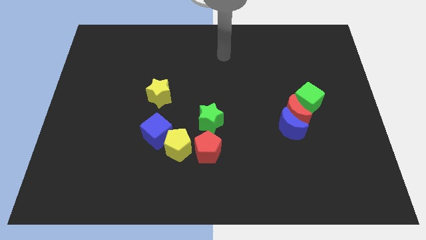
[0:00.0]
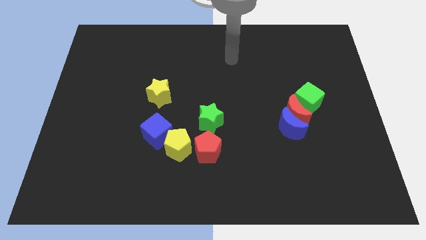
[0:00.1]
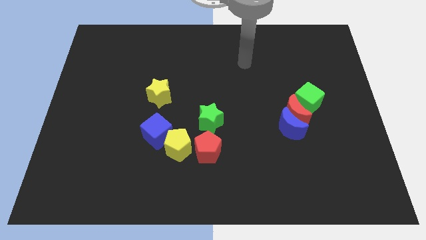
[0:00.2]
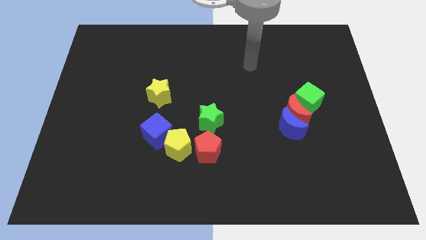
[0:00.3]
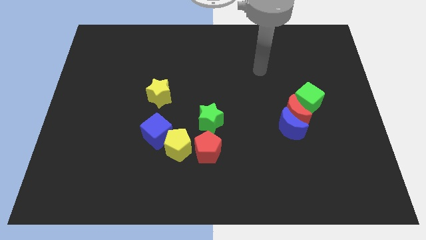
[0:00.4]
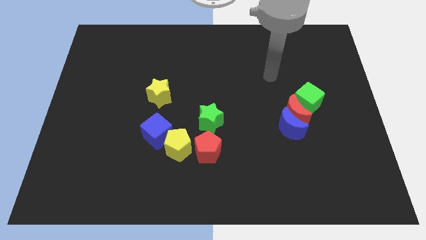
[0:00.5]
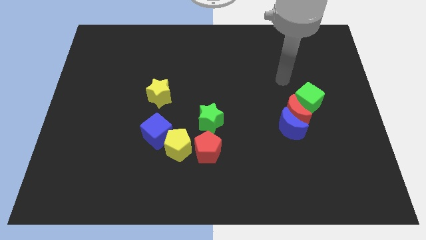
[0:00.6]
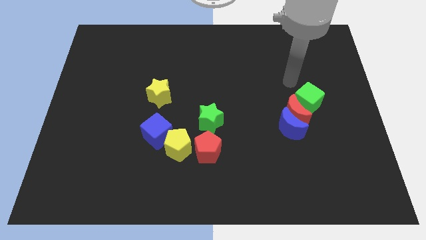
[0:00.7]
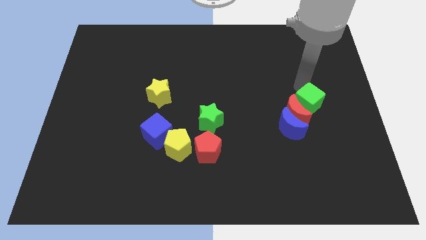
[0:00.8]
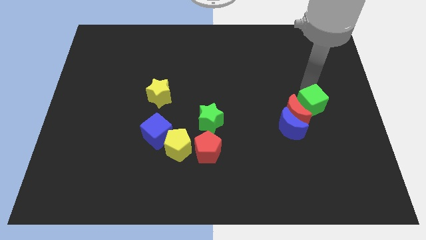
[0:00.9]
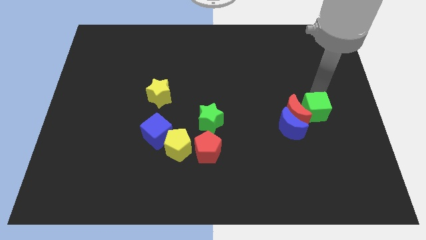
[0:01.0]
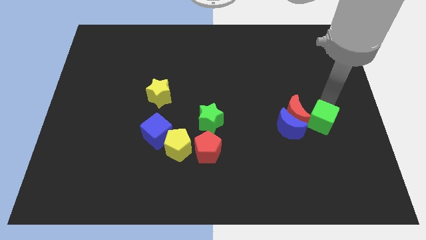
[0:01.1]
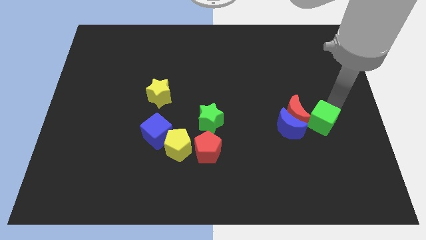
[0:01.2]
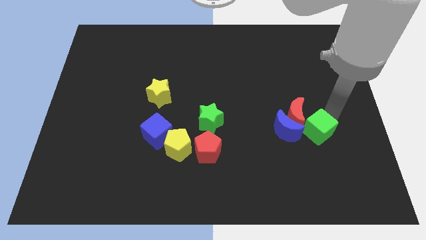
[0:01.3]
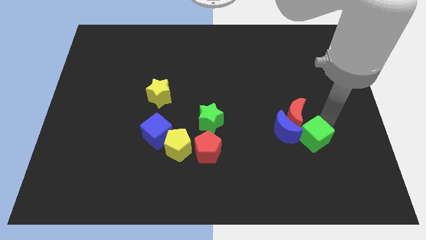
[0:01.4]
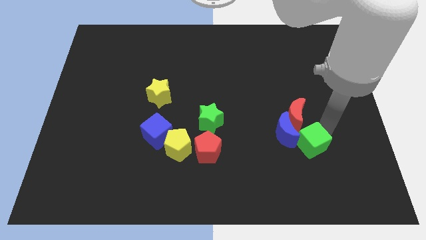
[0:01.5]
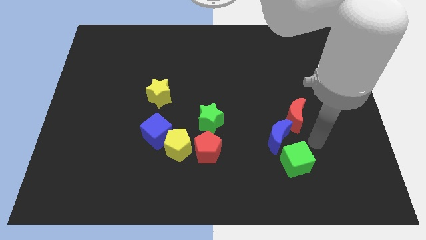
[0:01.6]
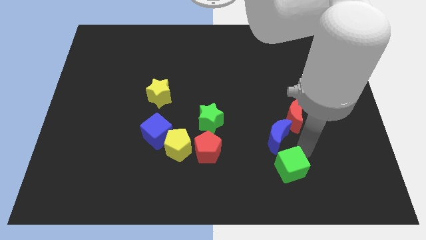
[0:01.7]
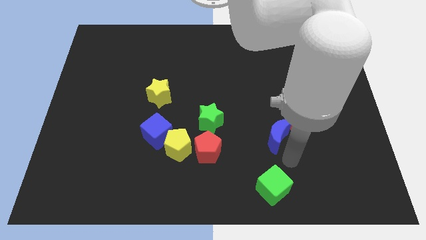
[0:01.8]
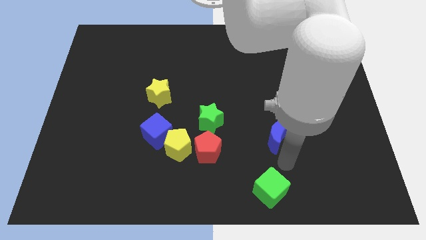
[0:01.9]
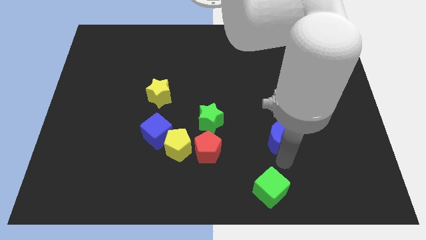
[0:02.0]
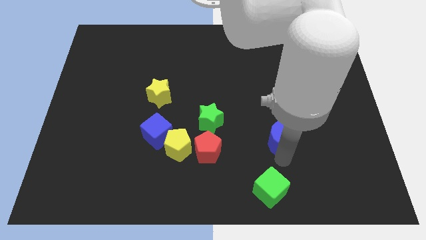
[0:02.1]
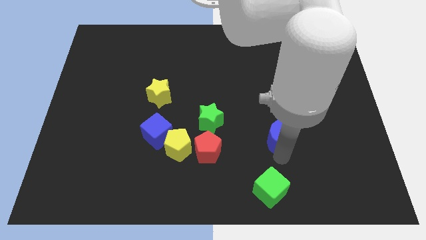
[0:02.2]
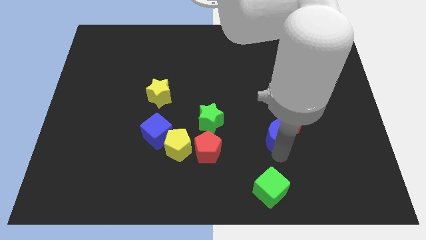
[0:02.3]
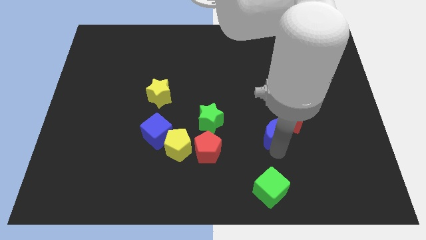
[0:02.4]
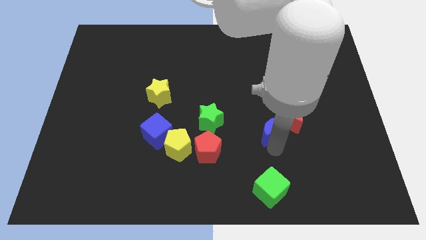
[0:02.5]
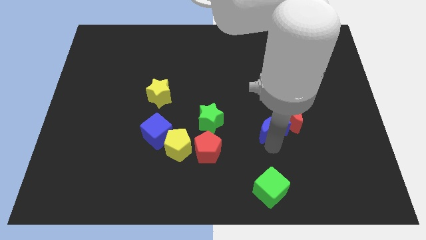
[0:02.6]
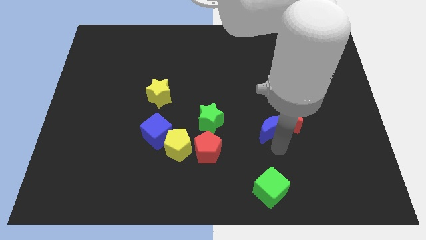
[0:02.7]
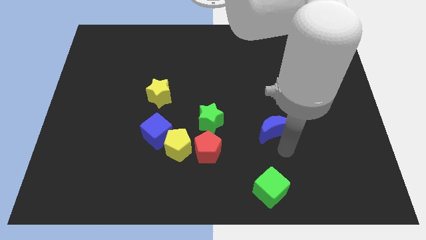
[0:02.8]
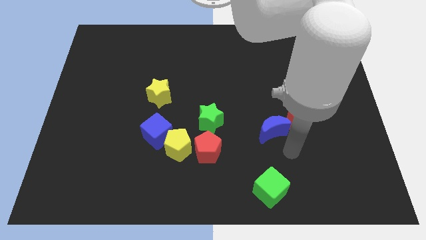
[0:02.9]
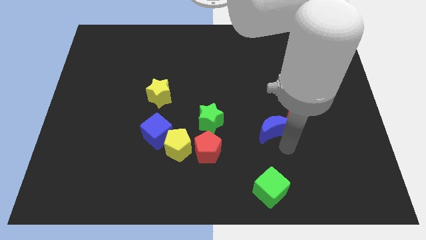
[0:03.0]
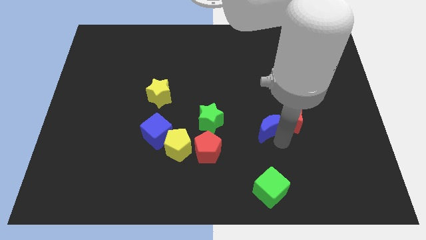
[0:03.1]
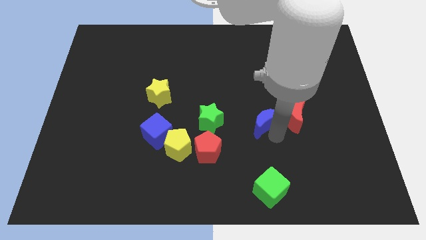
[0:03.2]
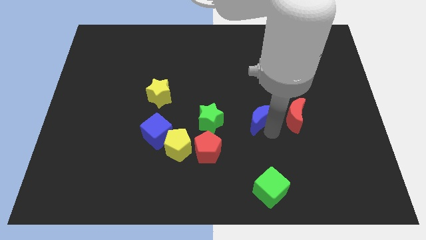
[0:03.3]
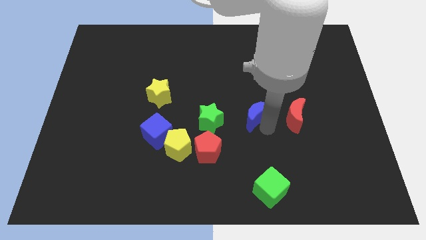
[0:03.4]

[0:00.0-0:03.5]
slightly move the blue moon upwards and then left

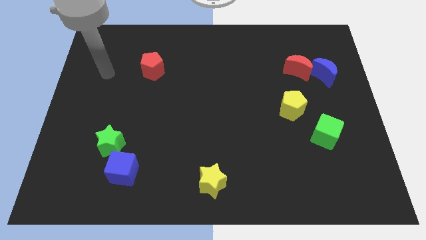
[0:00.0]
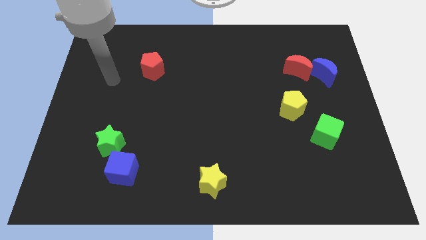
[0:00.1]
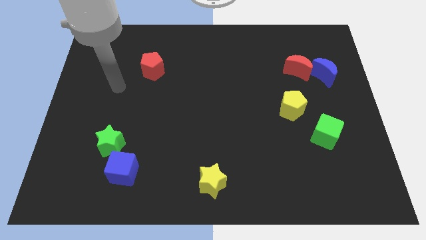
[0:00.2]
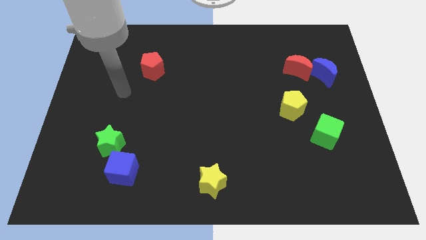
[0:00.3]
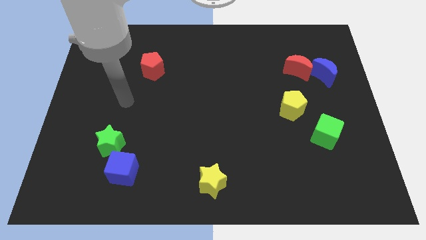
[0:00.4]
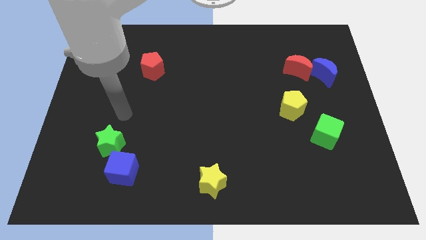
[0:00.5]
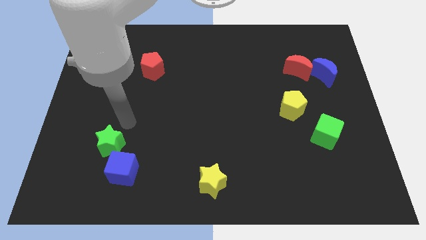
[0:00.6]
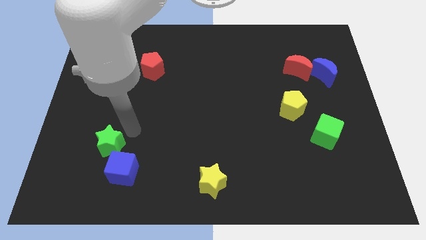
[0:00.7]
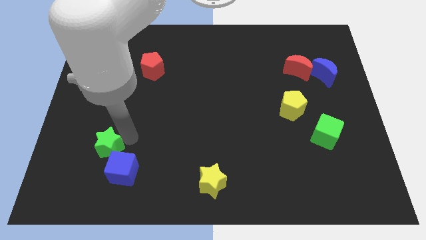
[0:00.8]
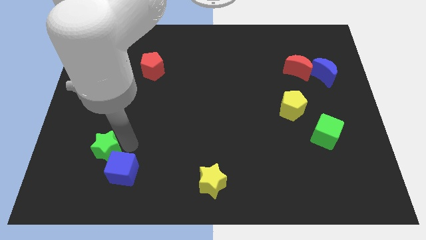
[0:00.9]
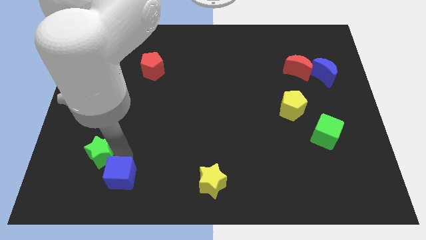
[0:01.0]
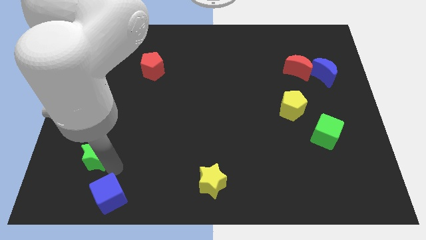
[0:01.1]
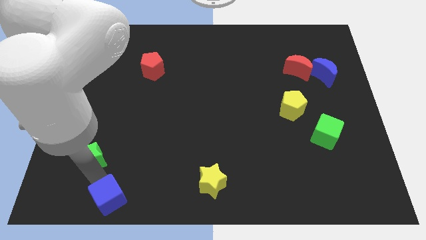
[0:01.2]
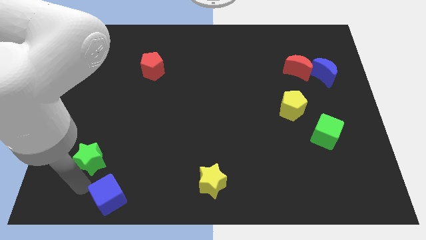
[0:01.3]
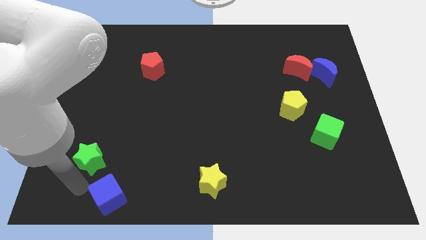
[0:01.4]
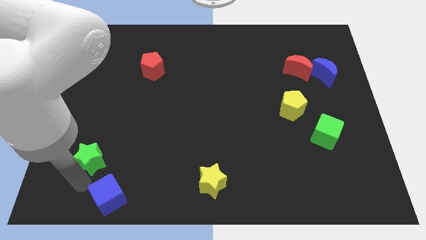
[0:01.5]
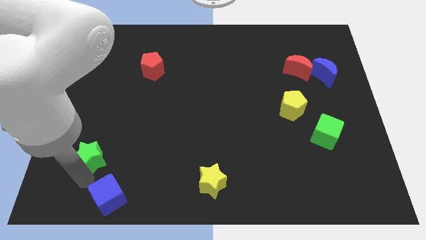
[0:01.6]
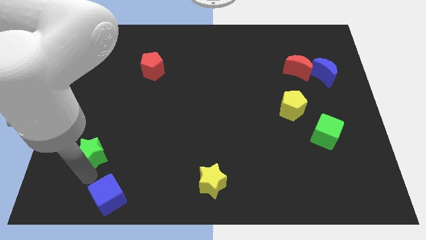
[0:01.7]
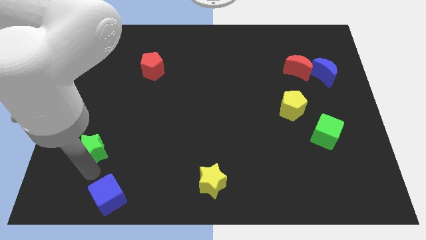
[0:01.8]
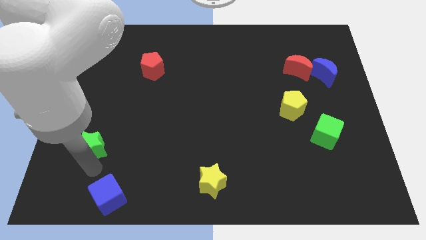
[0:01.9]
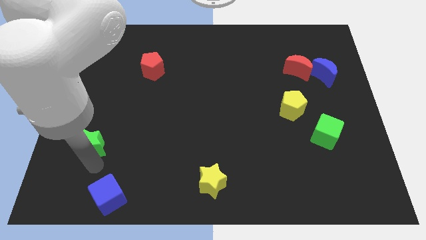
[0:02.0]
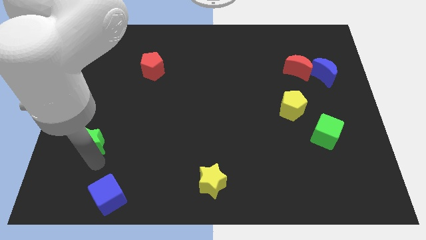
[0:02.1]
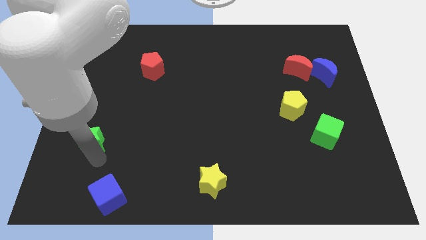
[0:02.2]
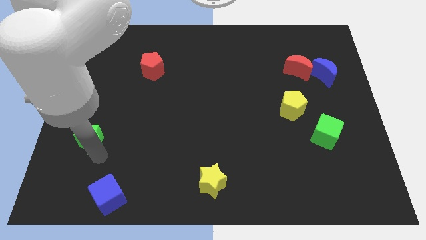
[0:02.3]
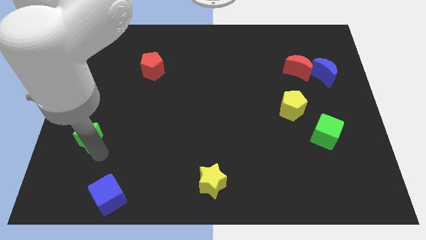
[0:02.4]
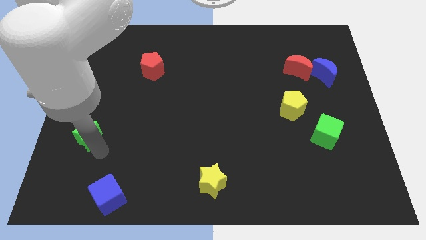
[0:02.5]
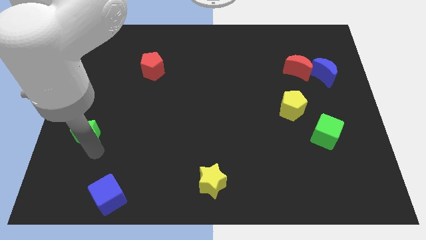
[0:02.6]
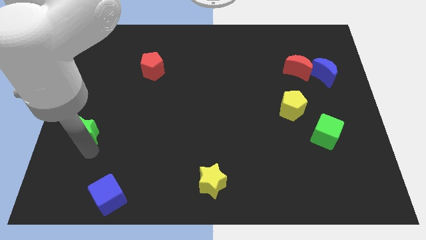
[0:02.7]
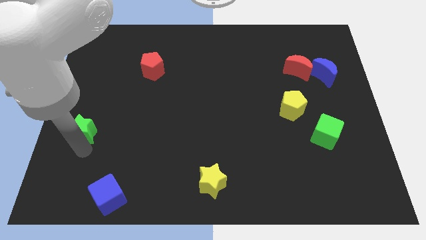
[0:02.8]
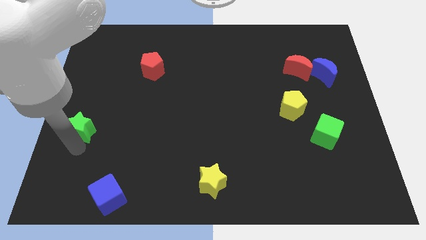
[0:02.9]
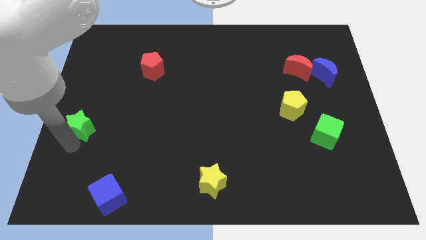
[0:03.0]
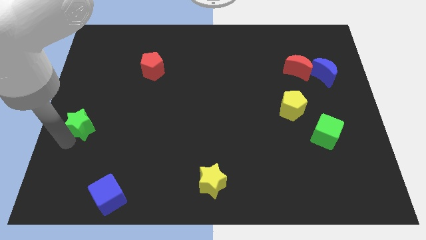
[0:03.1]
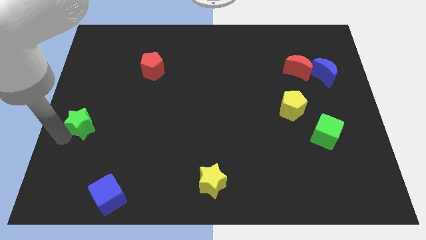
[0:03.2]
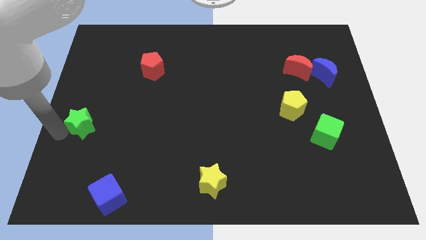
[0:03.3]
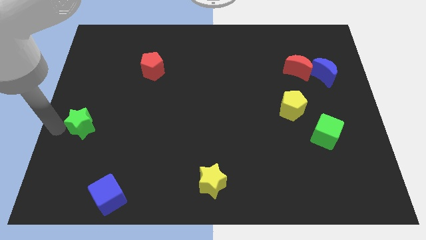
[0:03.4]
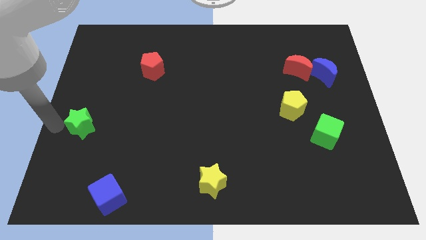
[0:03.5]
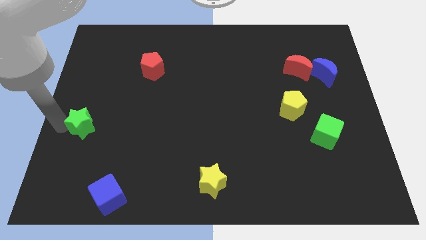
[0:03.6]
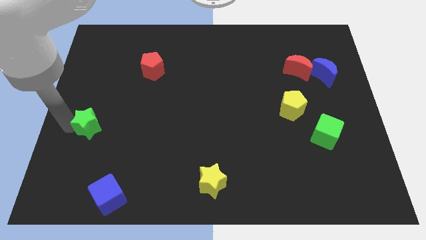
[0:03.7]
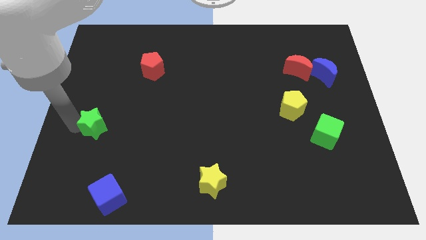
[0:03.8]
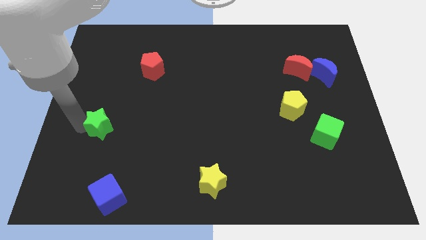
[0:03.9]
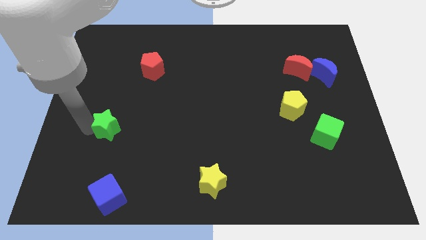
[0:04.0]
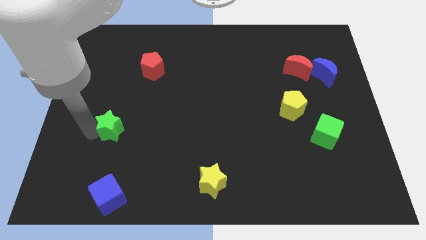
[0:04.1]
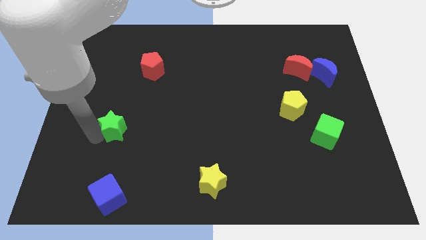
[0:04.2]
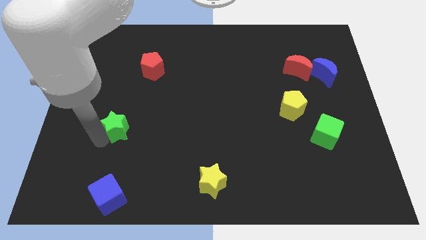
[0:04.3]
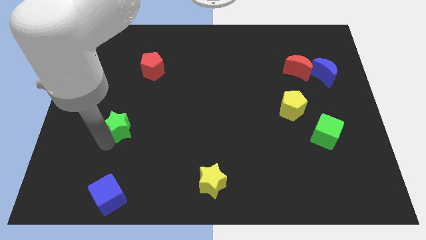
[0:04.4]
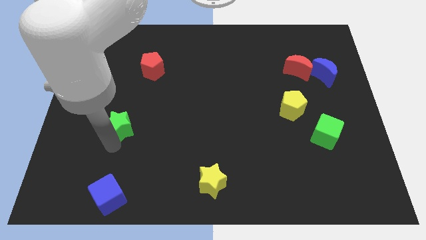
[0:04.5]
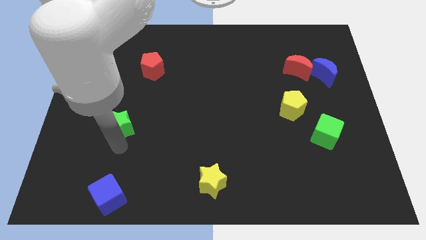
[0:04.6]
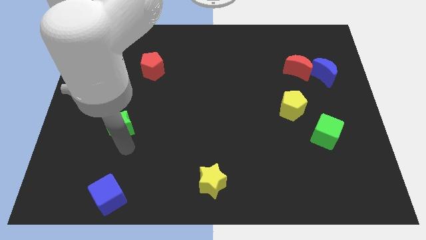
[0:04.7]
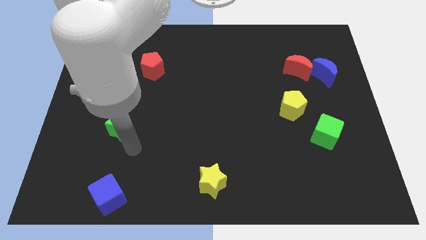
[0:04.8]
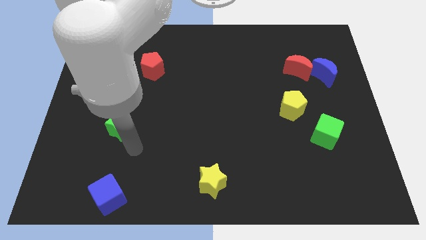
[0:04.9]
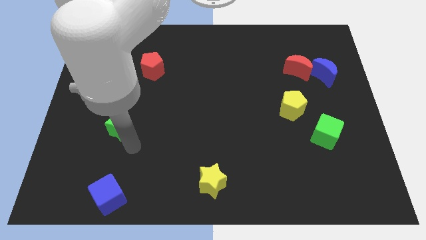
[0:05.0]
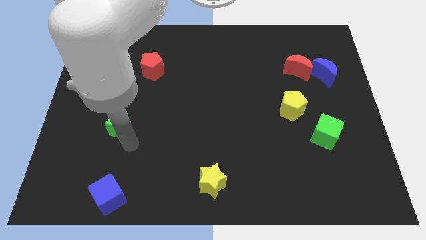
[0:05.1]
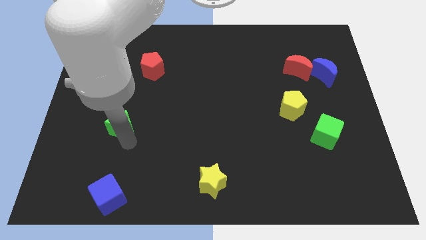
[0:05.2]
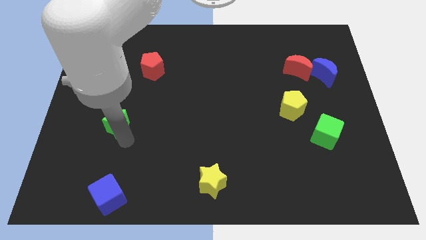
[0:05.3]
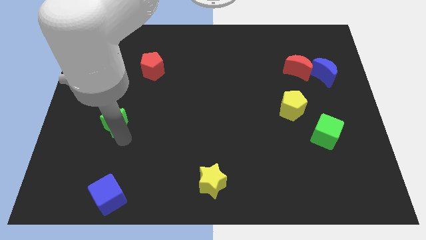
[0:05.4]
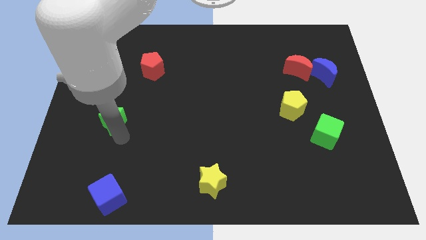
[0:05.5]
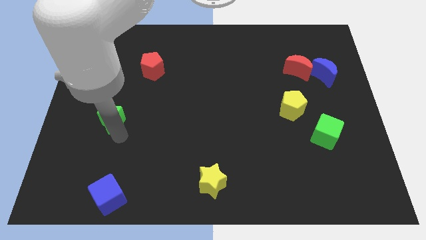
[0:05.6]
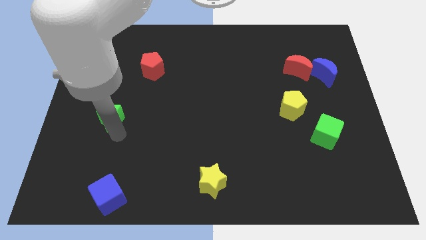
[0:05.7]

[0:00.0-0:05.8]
push the green star somewhat up
